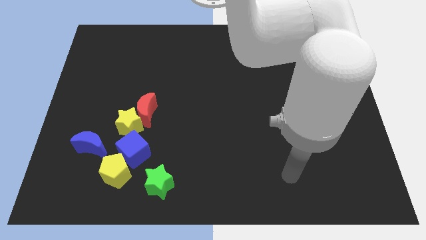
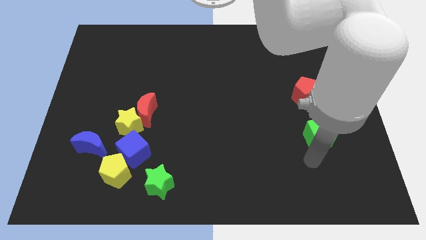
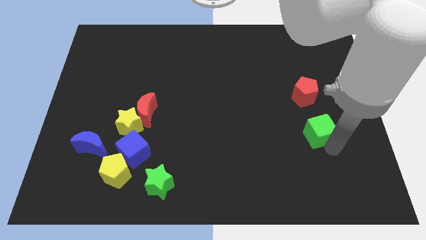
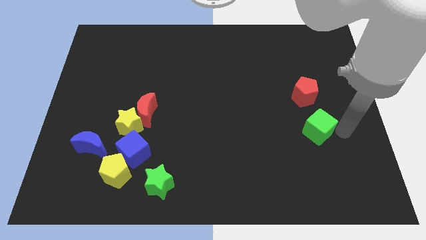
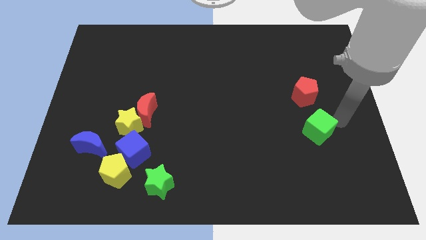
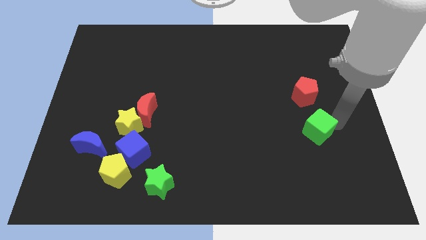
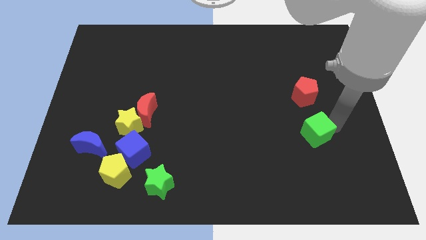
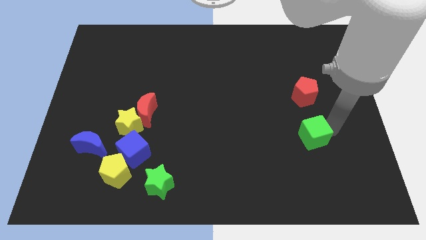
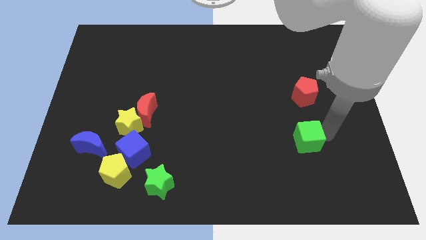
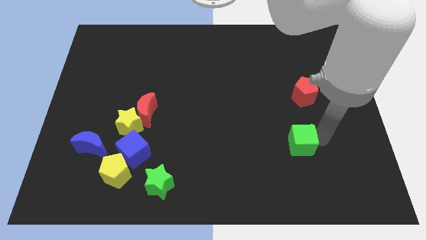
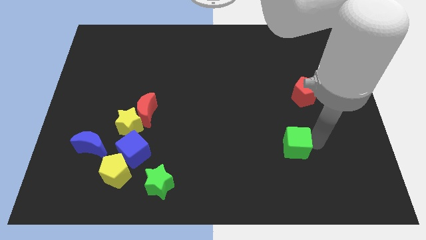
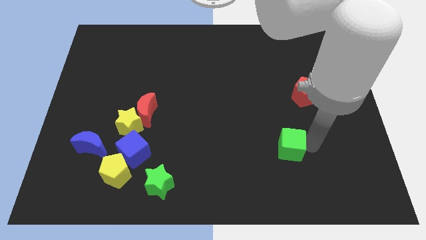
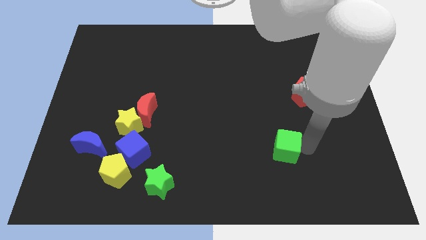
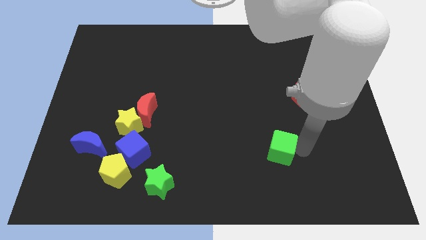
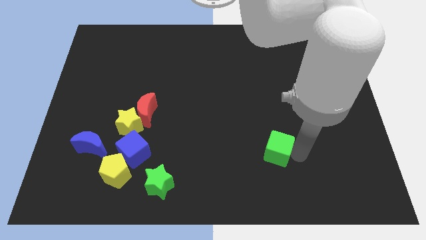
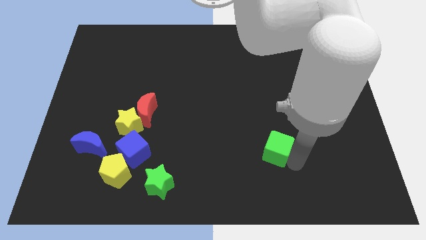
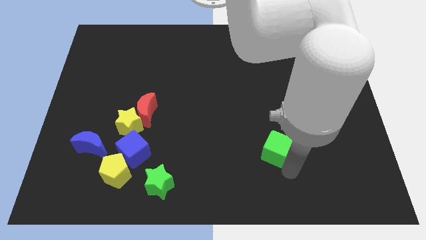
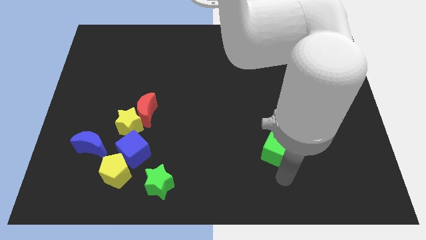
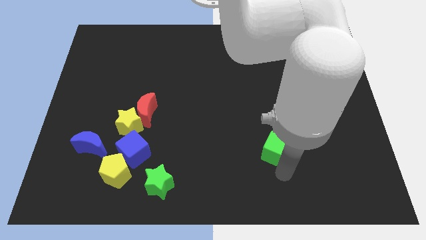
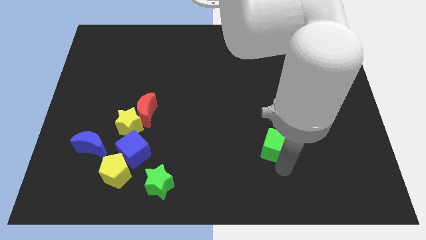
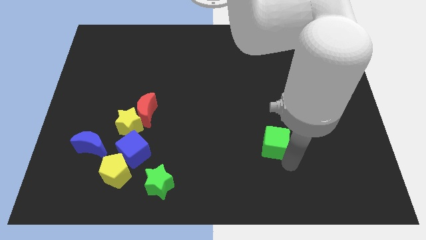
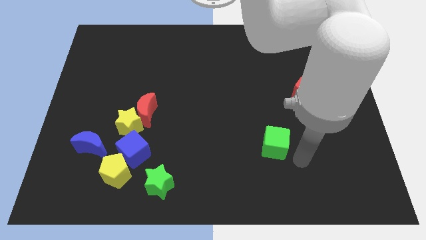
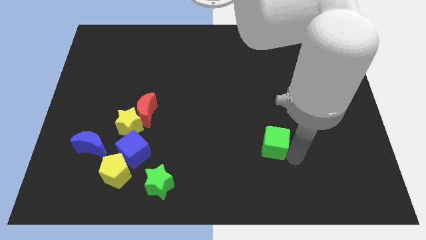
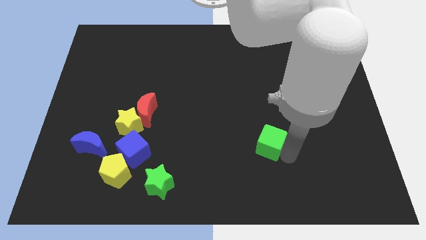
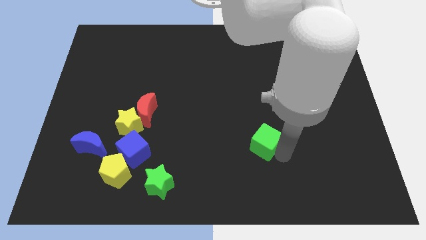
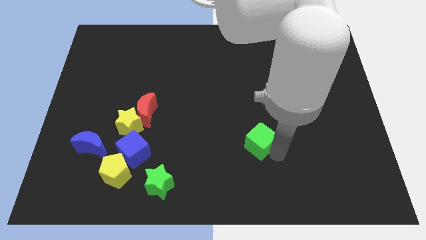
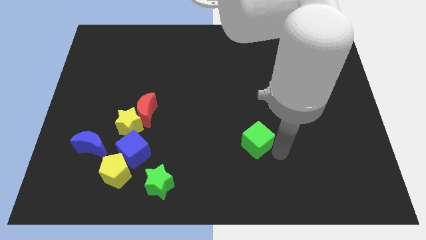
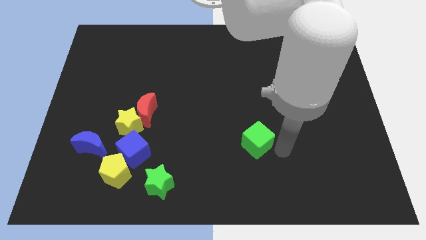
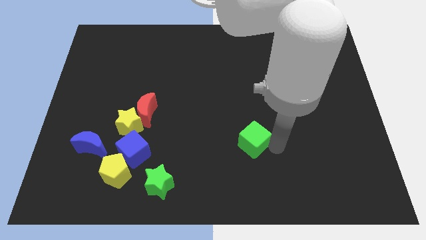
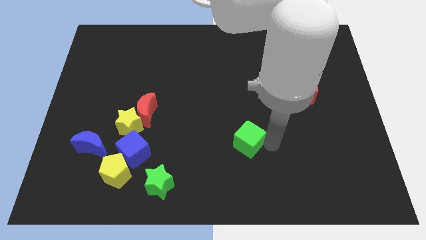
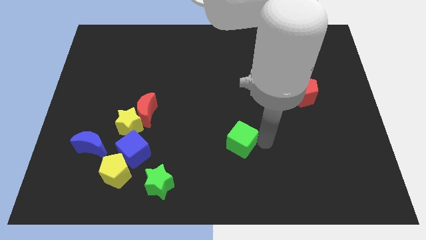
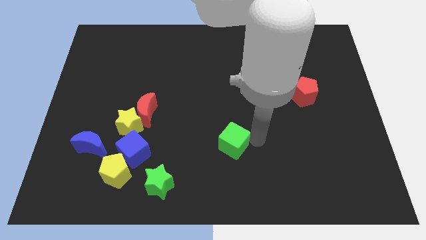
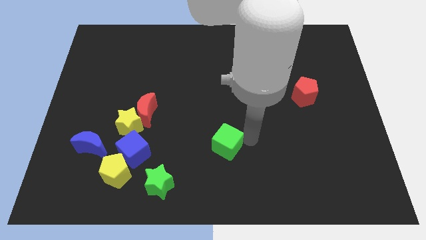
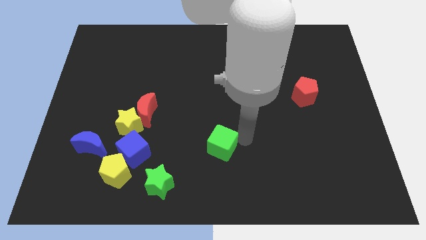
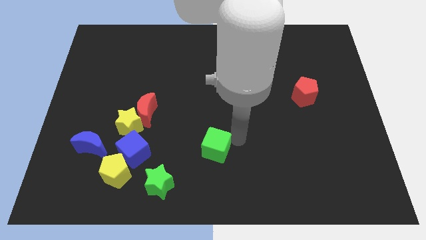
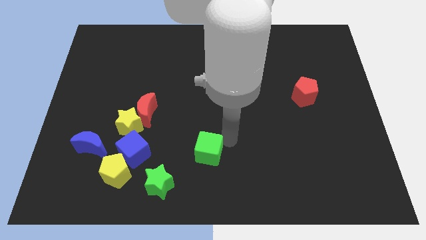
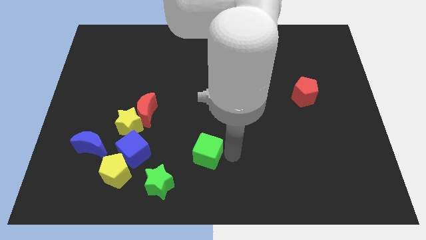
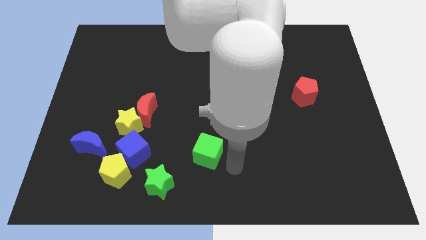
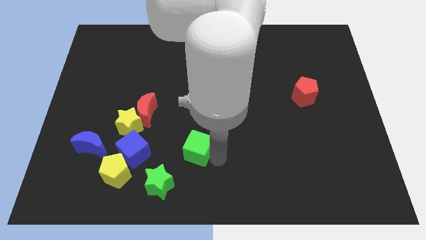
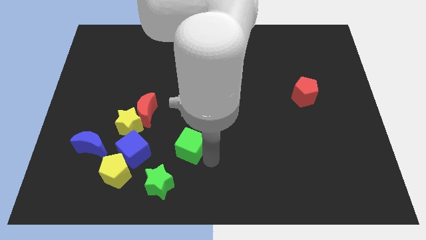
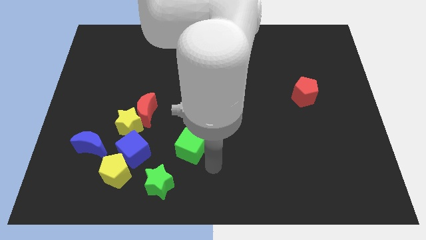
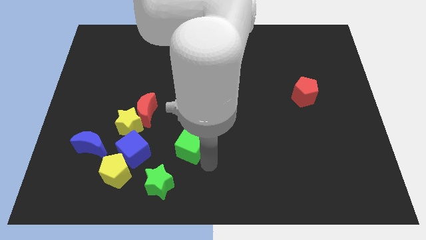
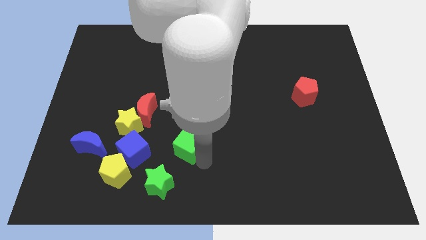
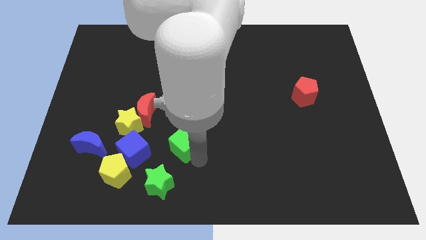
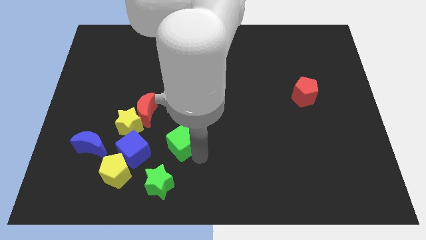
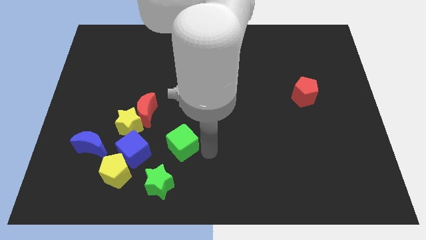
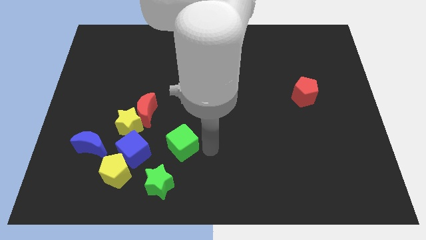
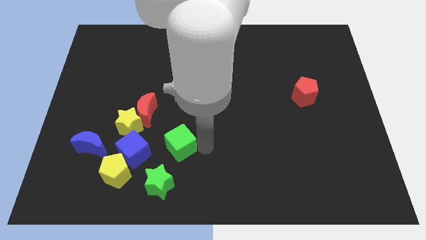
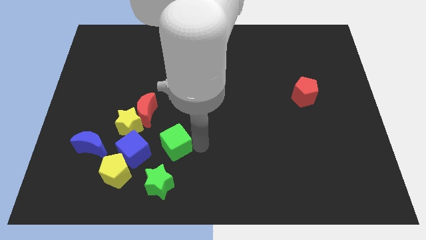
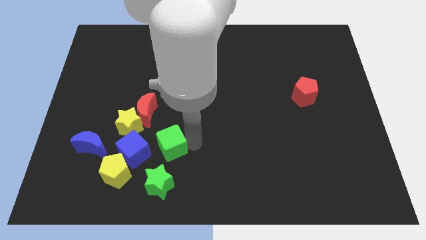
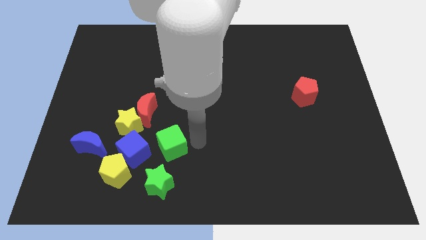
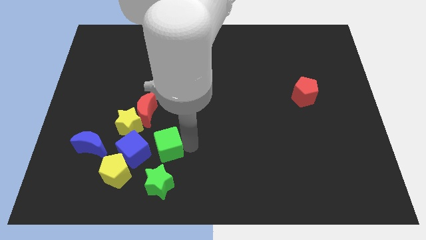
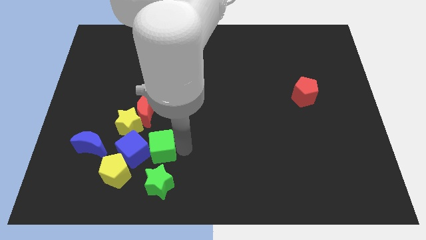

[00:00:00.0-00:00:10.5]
slide the green cube next to the blue cube

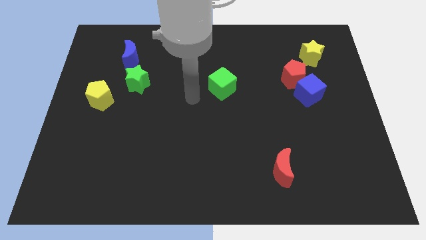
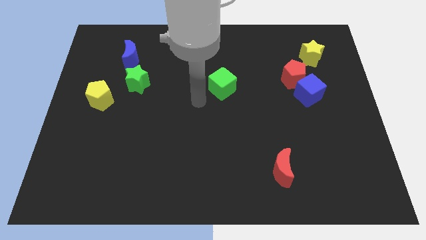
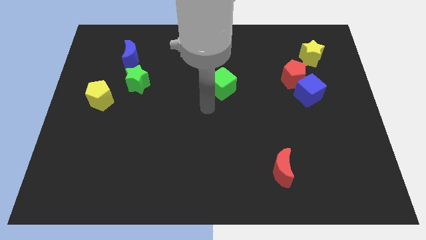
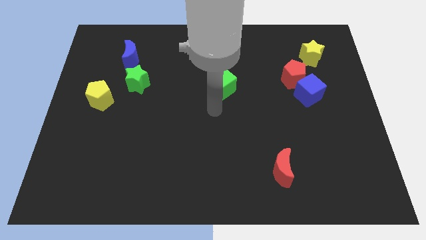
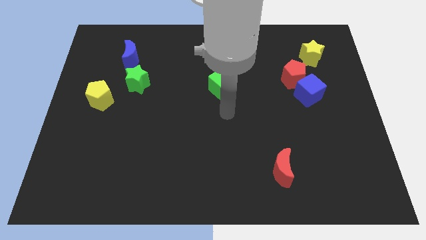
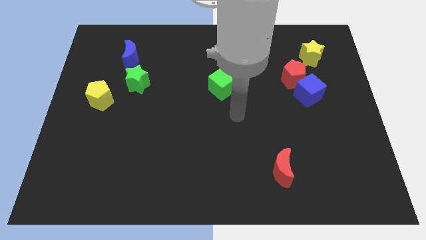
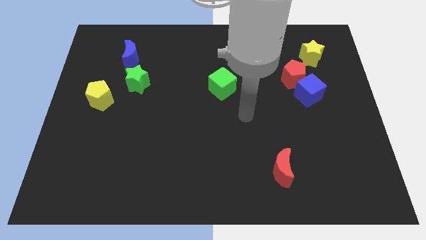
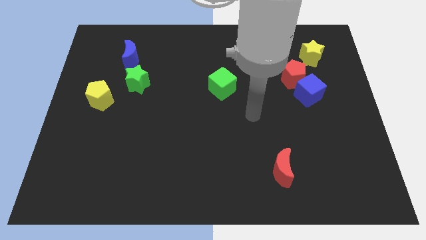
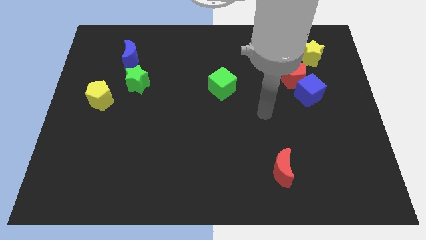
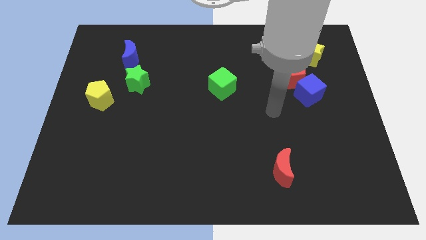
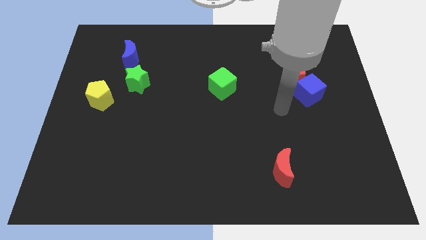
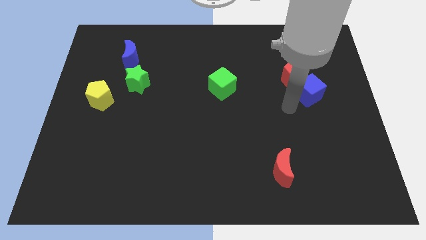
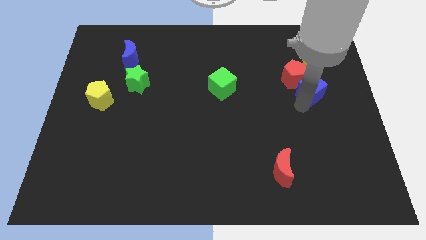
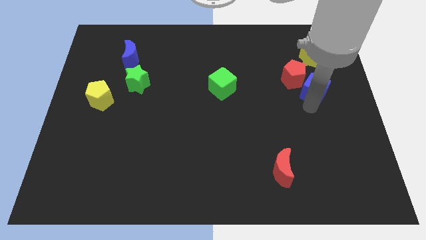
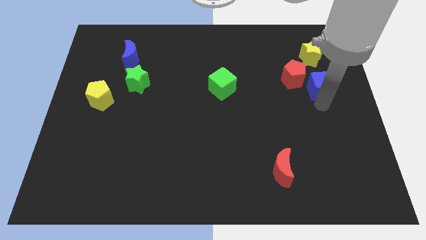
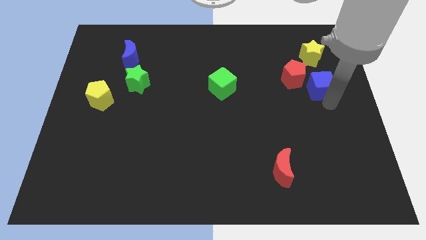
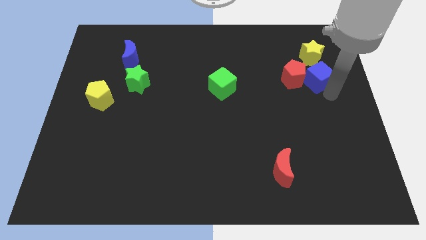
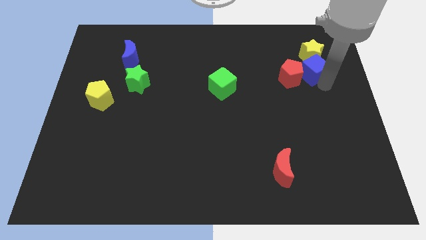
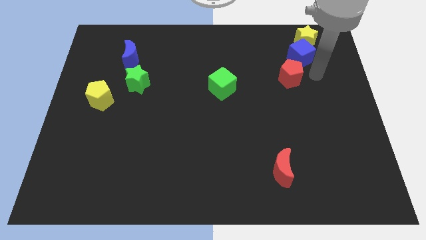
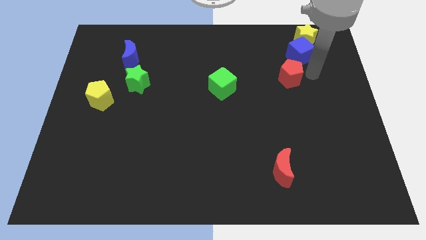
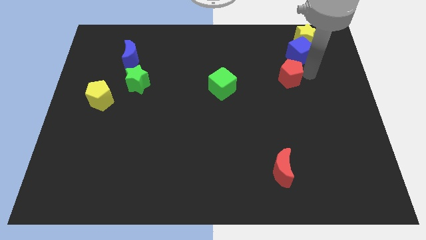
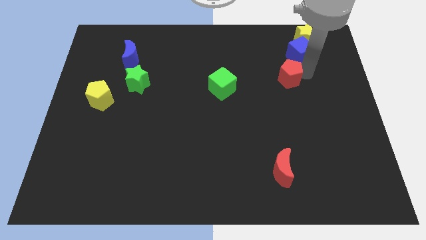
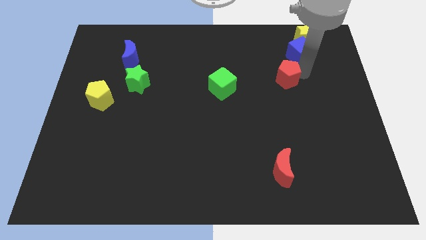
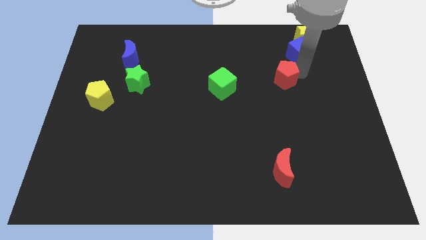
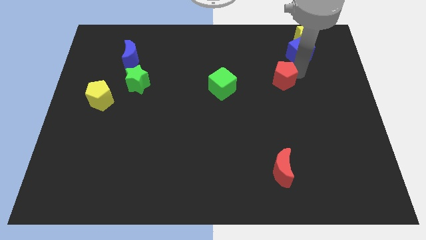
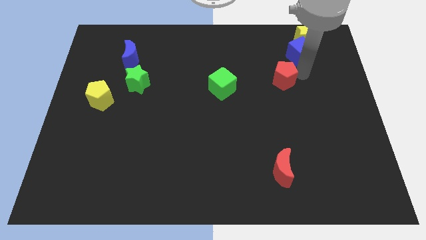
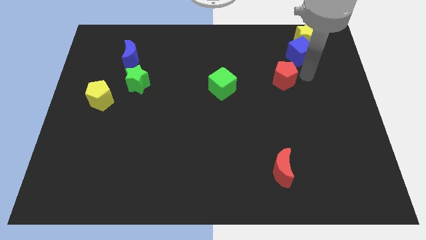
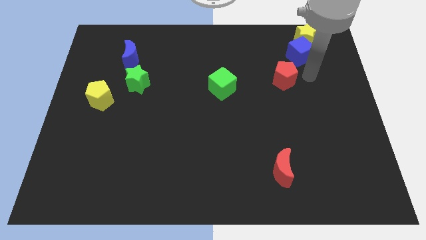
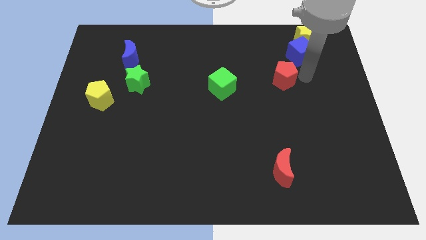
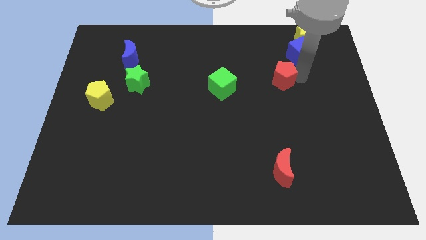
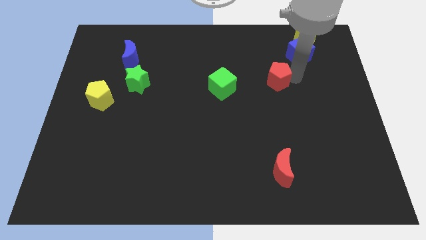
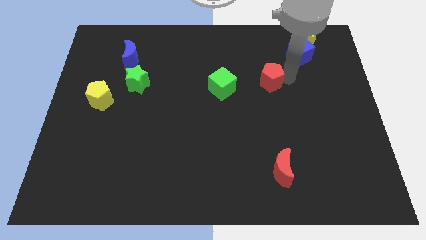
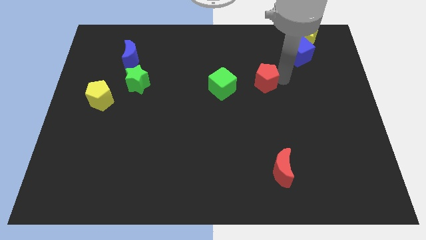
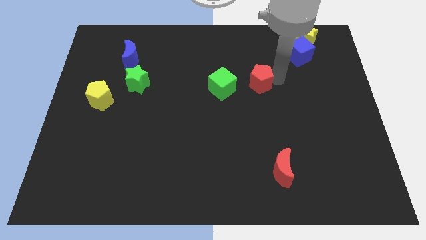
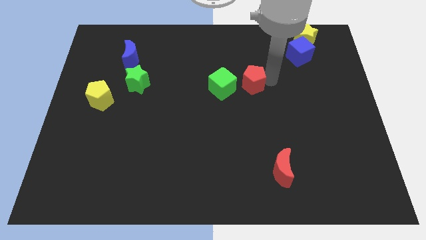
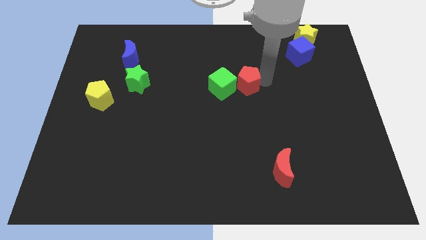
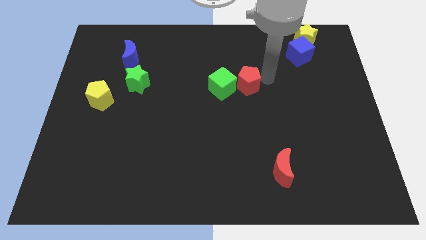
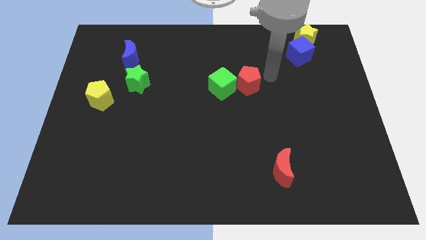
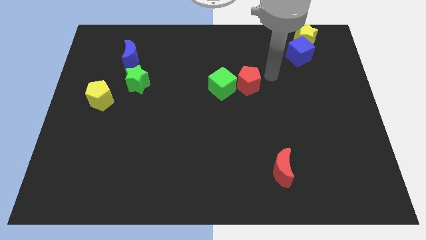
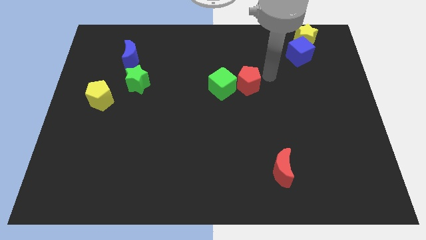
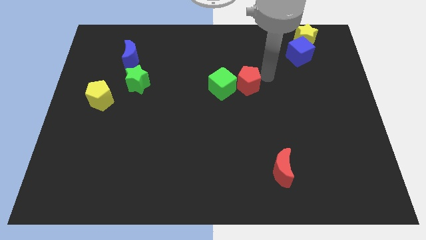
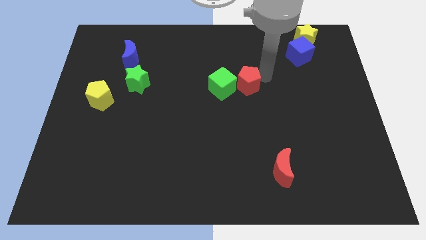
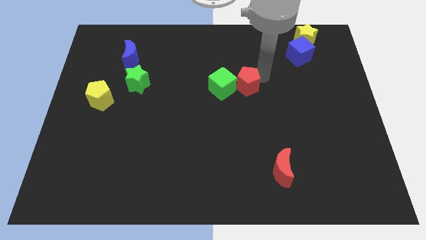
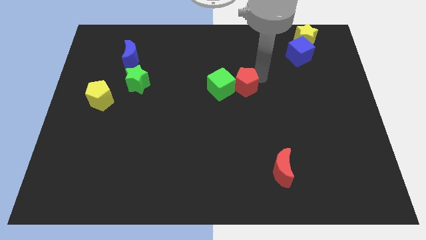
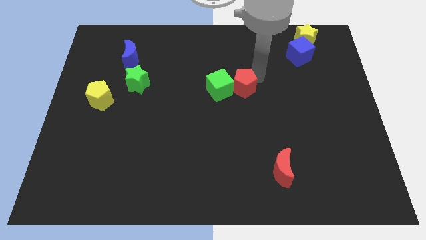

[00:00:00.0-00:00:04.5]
put the red pentagon next to the green cube
